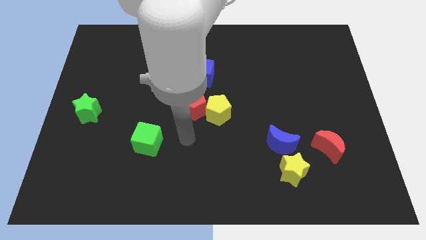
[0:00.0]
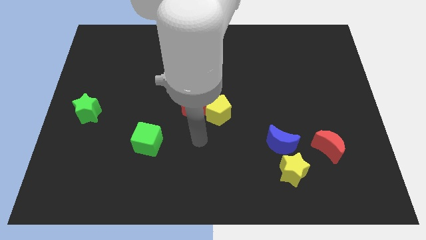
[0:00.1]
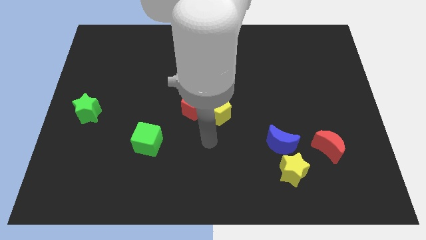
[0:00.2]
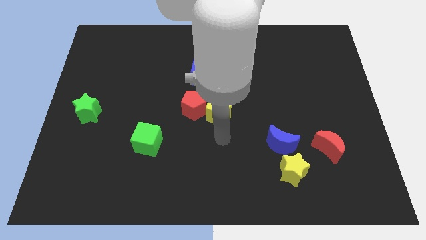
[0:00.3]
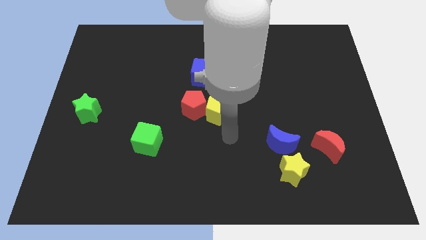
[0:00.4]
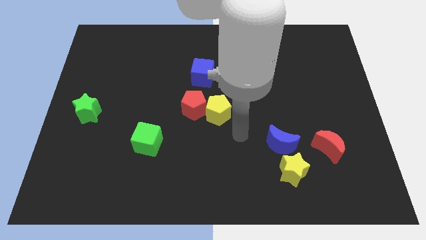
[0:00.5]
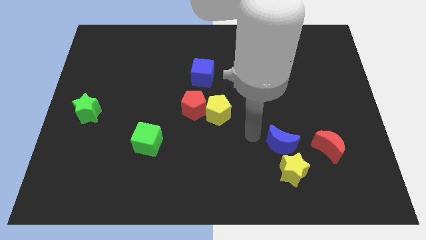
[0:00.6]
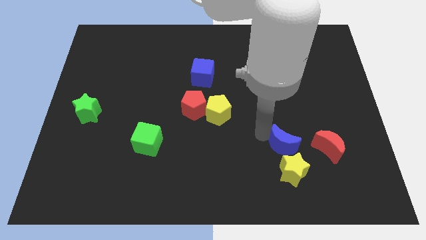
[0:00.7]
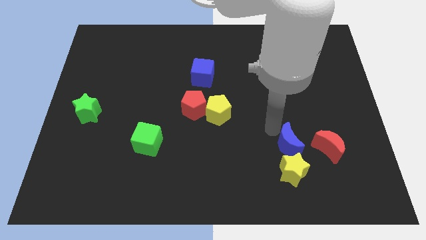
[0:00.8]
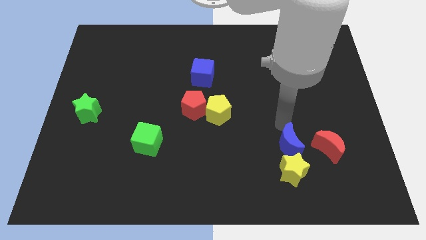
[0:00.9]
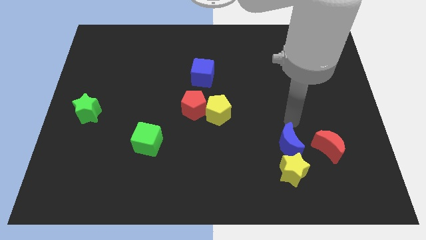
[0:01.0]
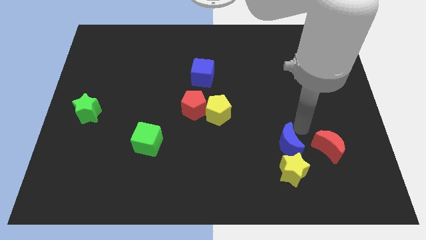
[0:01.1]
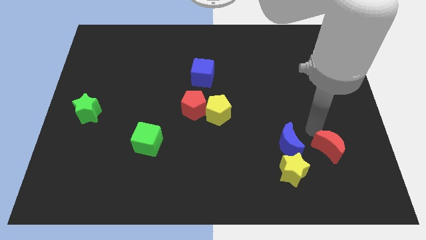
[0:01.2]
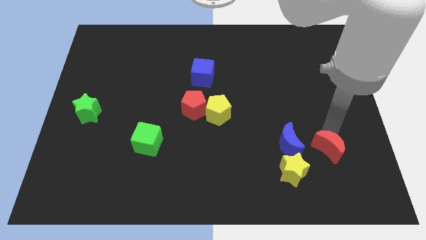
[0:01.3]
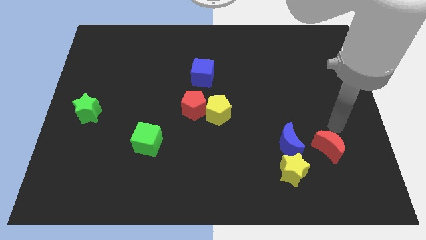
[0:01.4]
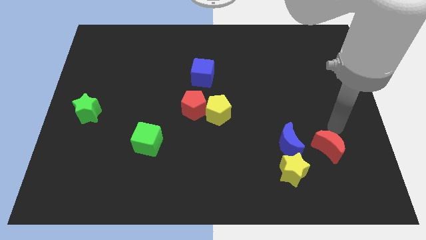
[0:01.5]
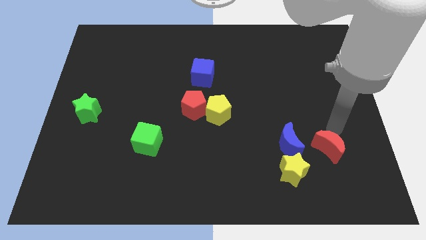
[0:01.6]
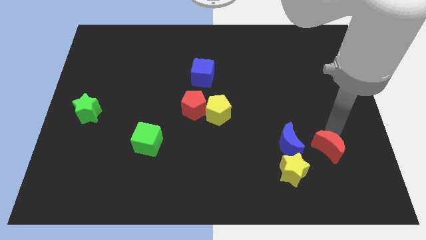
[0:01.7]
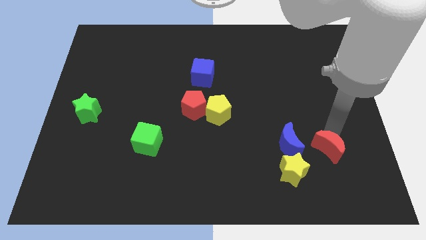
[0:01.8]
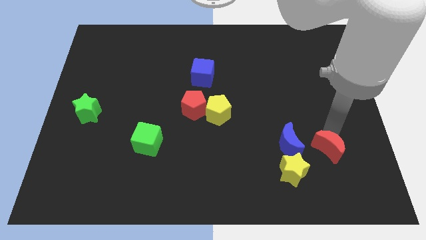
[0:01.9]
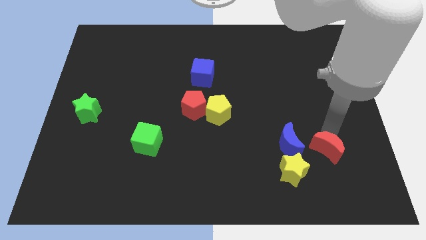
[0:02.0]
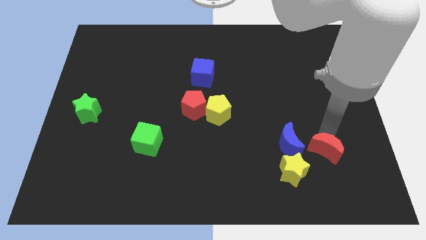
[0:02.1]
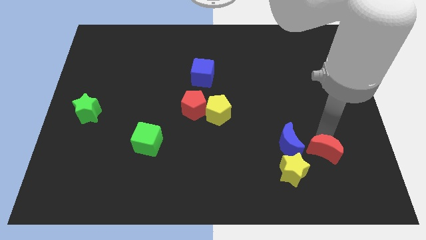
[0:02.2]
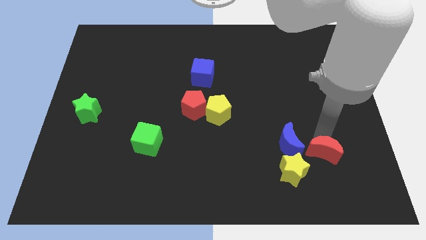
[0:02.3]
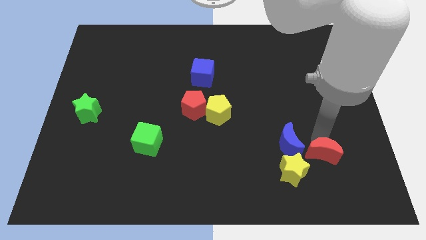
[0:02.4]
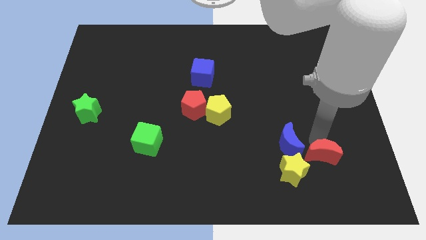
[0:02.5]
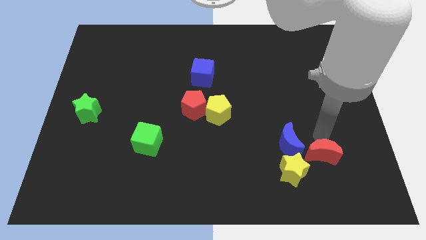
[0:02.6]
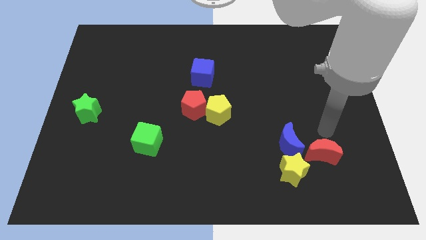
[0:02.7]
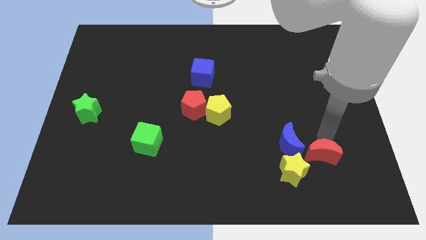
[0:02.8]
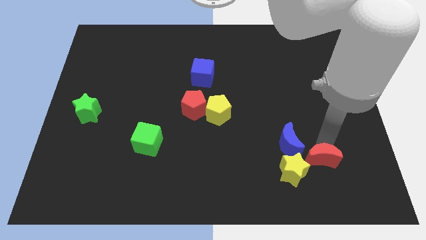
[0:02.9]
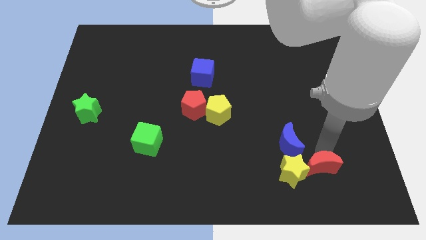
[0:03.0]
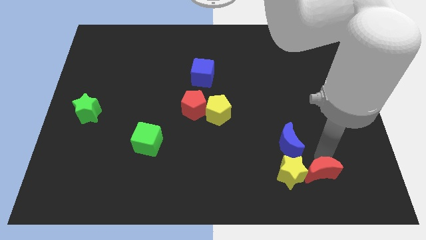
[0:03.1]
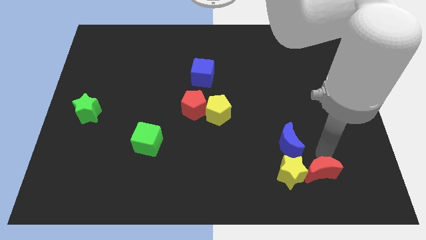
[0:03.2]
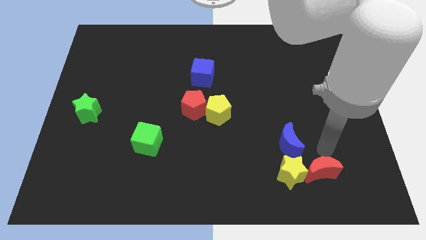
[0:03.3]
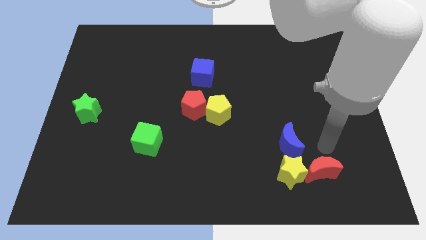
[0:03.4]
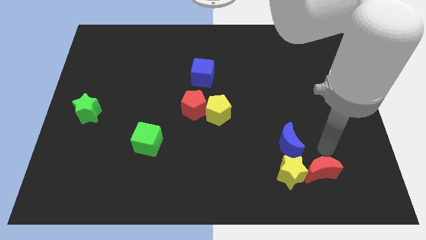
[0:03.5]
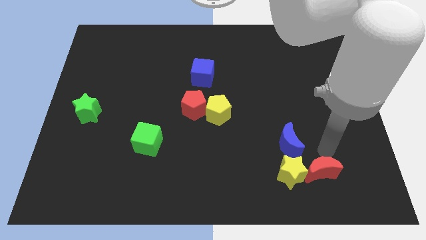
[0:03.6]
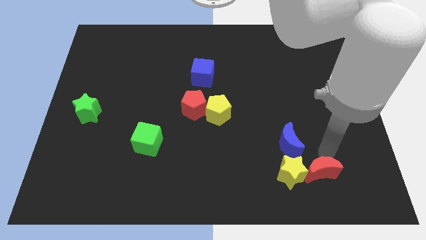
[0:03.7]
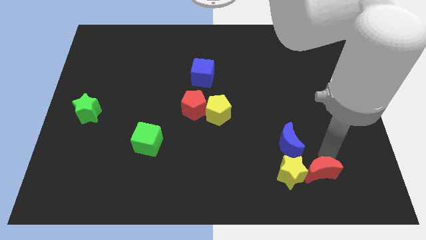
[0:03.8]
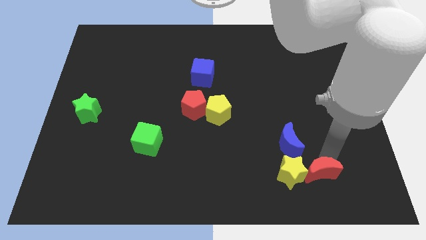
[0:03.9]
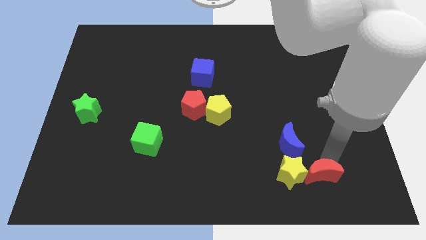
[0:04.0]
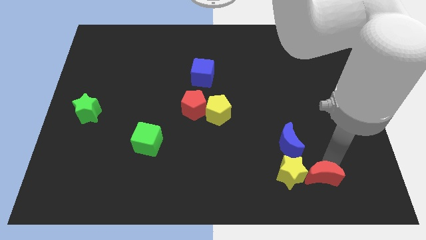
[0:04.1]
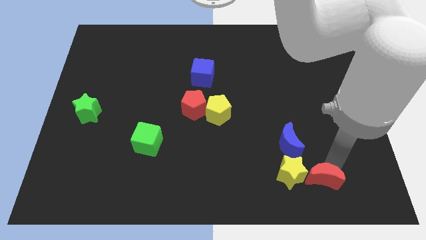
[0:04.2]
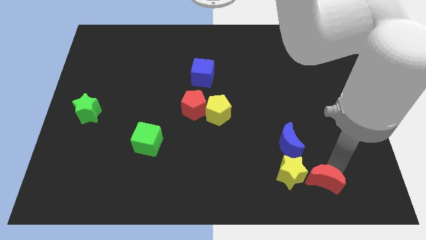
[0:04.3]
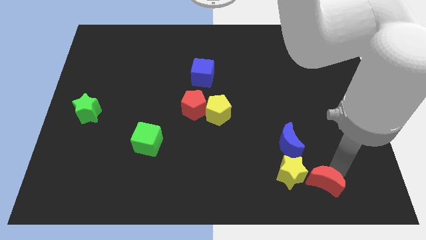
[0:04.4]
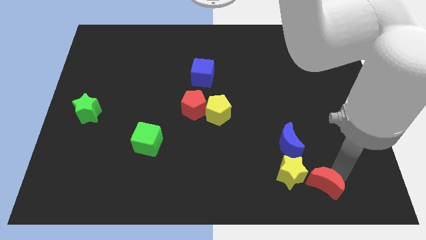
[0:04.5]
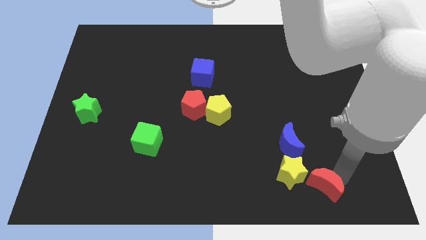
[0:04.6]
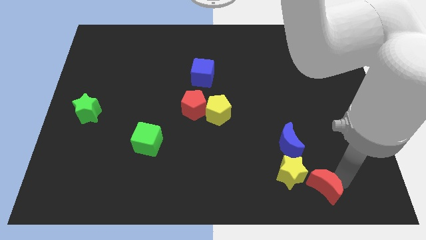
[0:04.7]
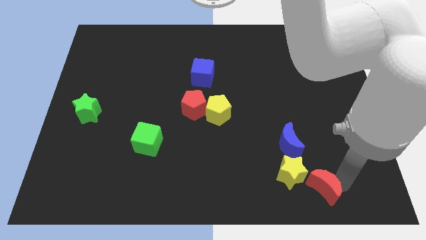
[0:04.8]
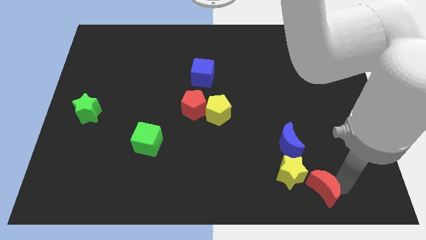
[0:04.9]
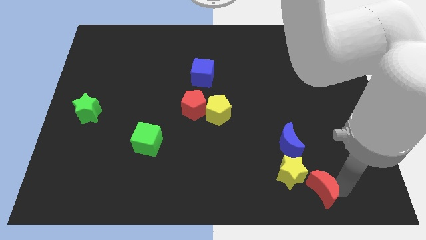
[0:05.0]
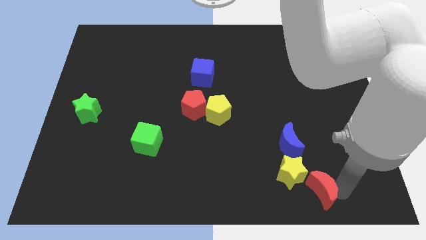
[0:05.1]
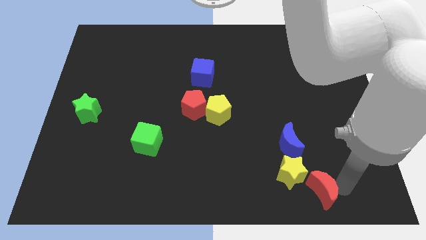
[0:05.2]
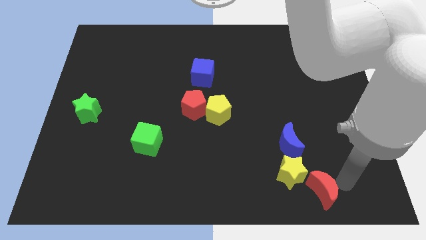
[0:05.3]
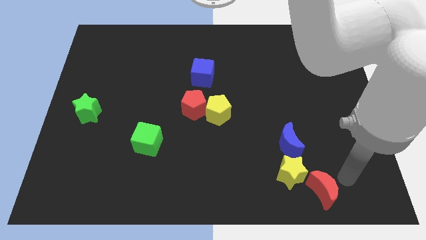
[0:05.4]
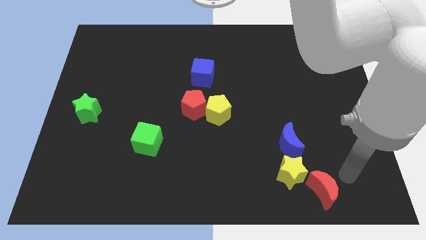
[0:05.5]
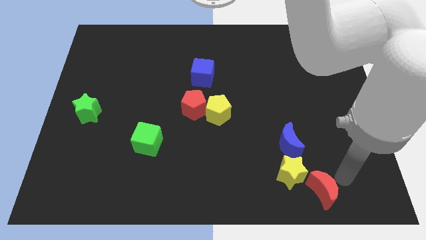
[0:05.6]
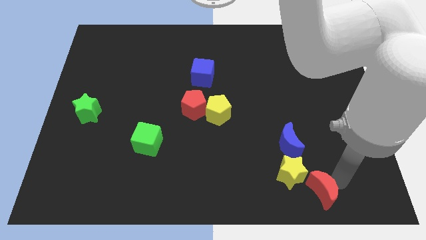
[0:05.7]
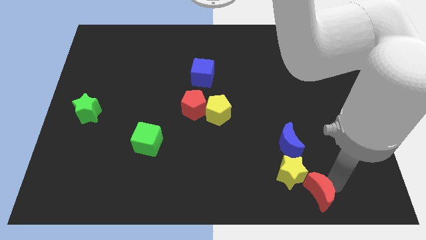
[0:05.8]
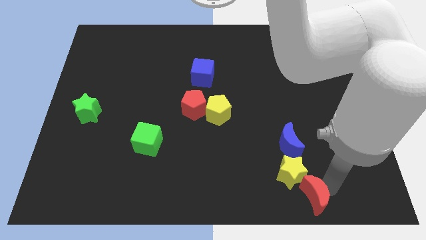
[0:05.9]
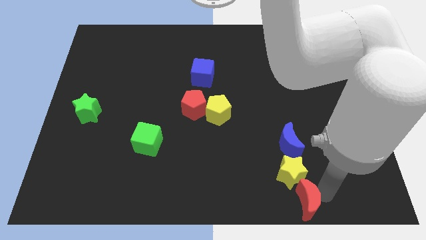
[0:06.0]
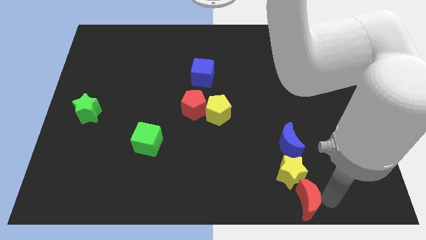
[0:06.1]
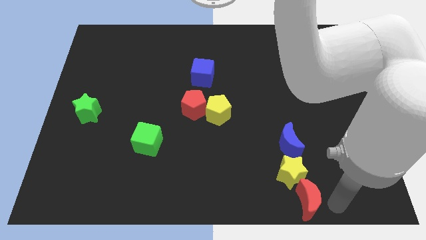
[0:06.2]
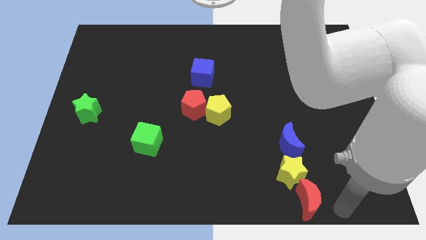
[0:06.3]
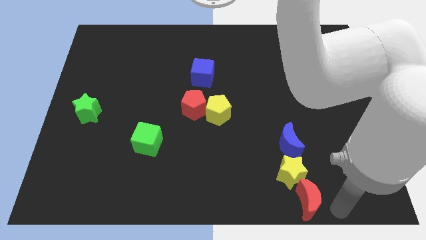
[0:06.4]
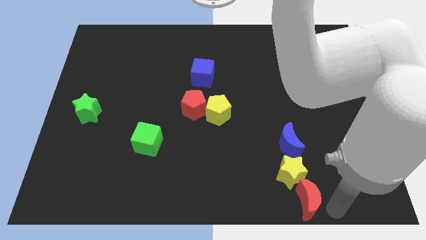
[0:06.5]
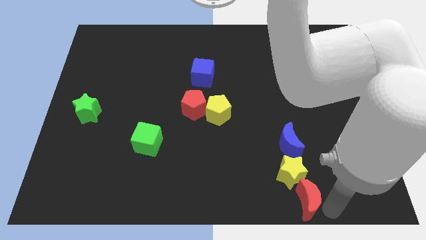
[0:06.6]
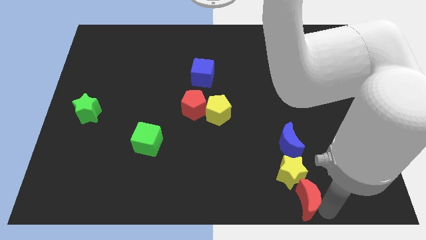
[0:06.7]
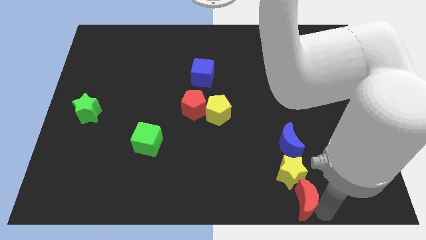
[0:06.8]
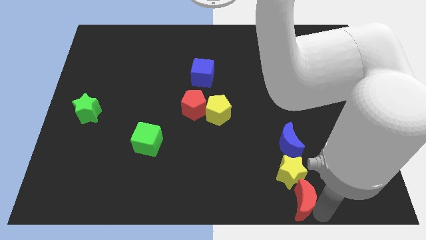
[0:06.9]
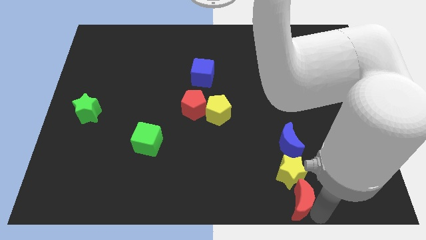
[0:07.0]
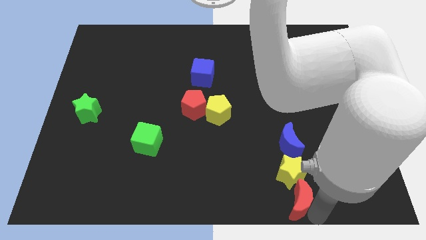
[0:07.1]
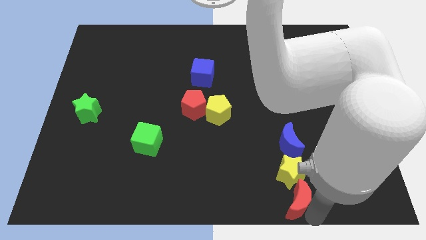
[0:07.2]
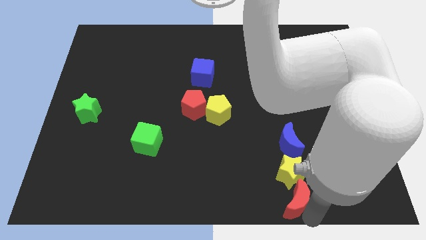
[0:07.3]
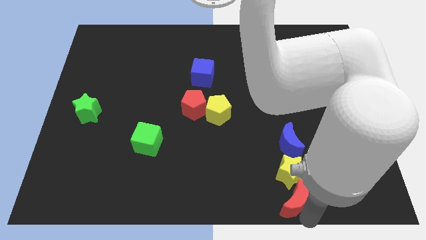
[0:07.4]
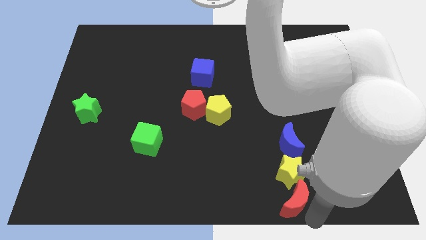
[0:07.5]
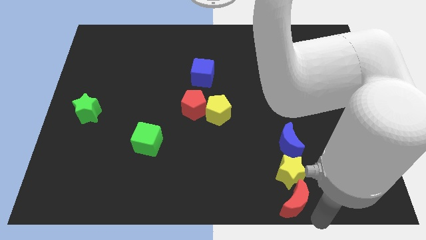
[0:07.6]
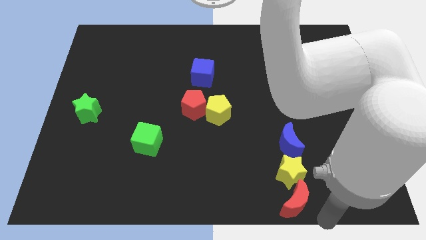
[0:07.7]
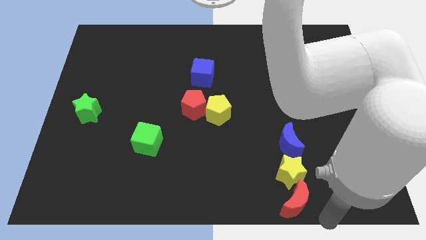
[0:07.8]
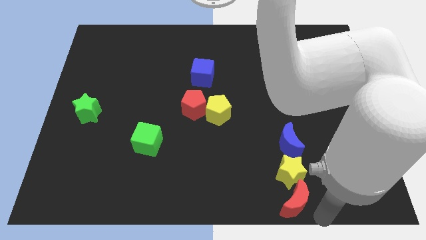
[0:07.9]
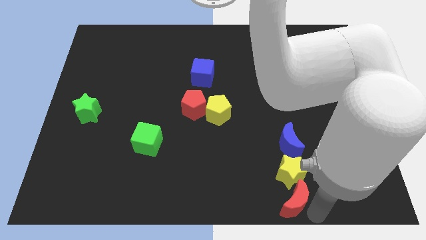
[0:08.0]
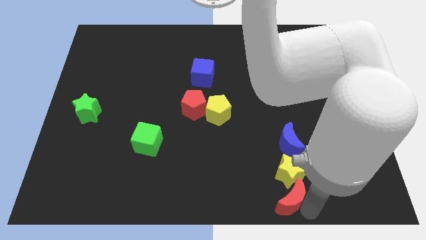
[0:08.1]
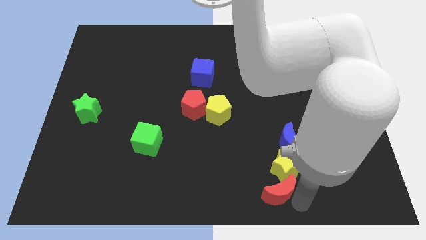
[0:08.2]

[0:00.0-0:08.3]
put the red moon to the bottom side
